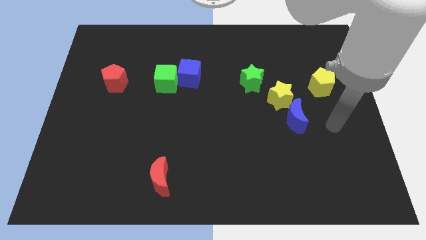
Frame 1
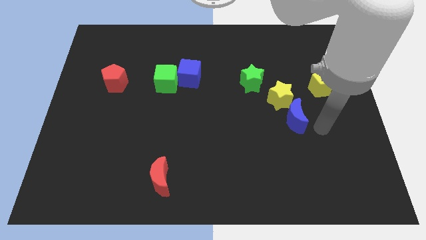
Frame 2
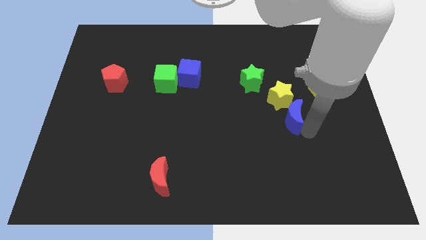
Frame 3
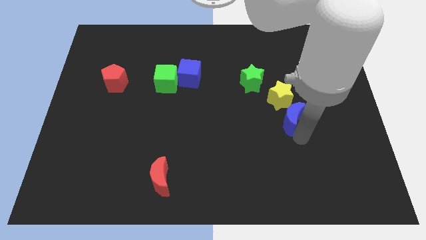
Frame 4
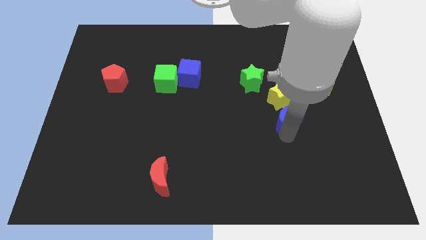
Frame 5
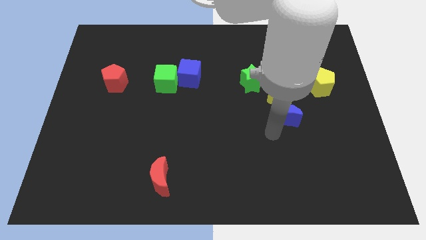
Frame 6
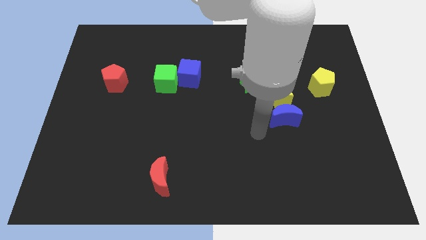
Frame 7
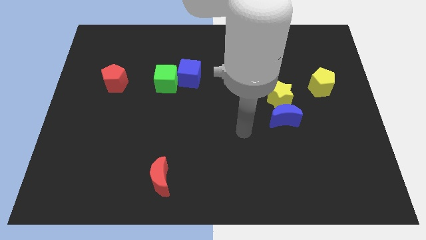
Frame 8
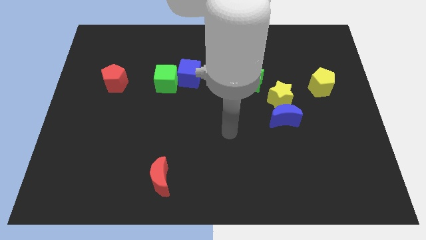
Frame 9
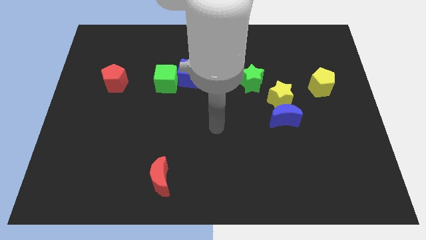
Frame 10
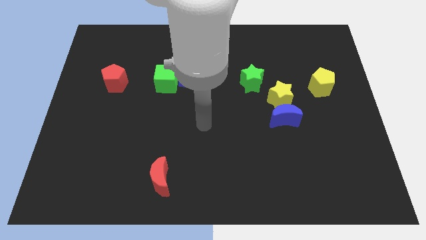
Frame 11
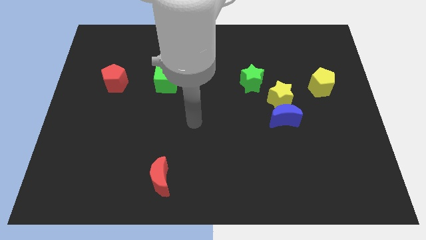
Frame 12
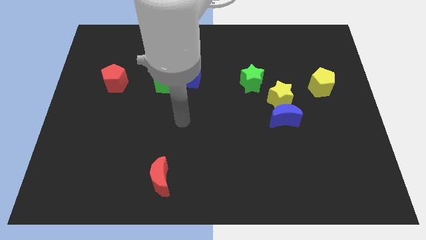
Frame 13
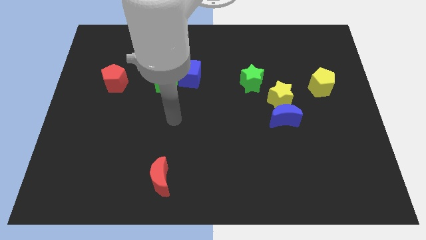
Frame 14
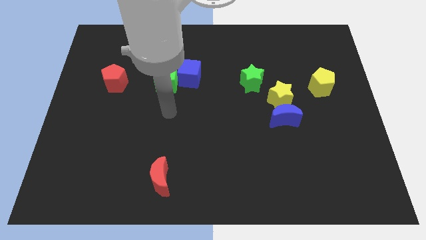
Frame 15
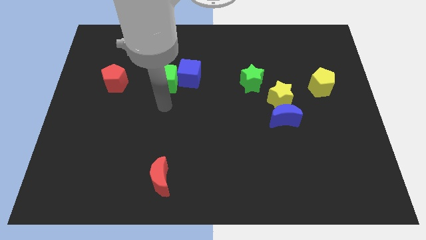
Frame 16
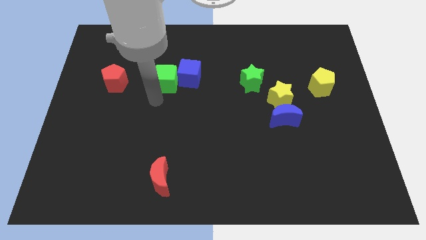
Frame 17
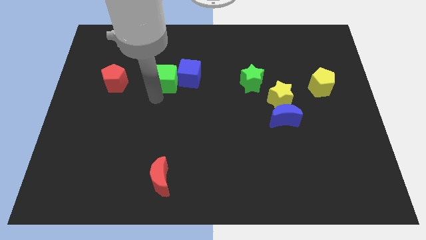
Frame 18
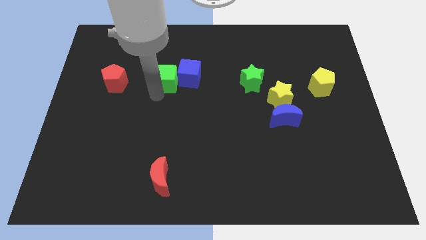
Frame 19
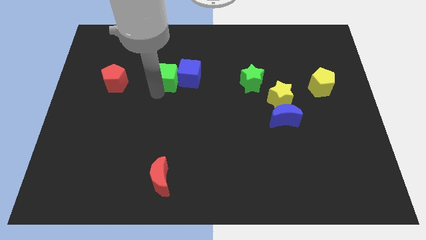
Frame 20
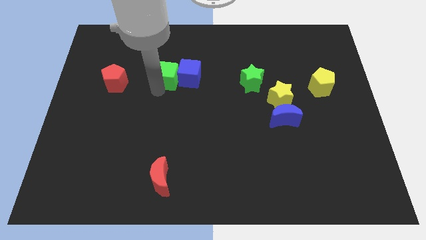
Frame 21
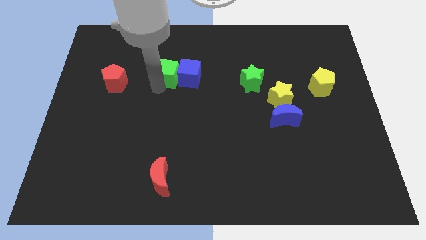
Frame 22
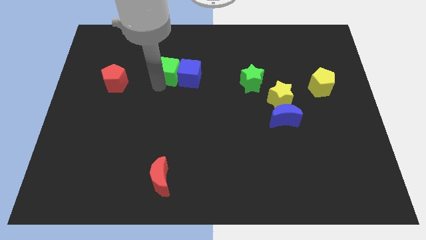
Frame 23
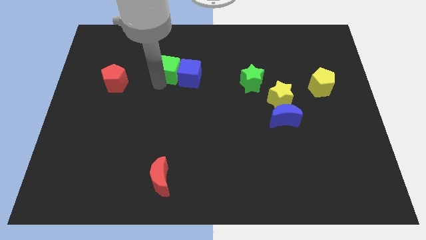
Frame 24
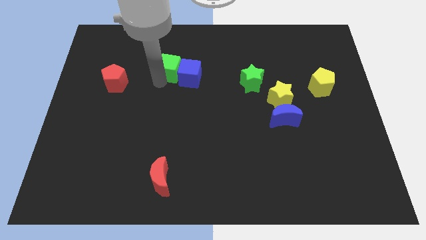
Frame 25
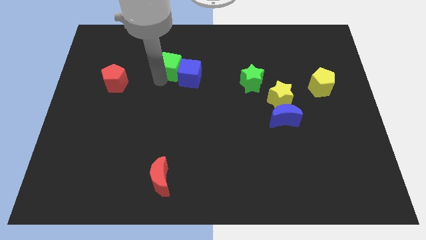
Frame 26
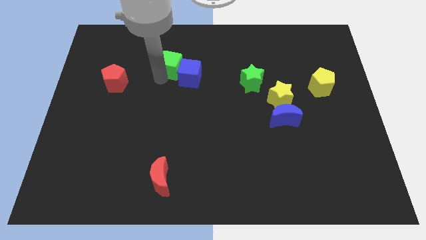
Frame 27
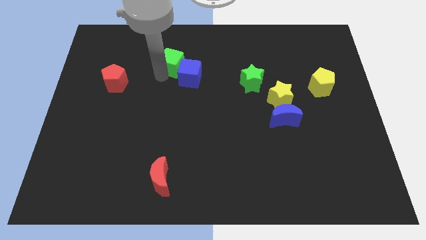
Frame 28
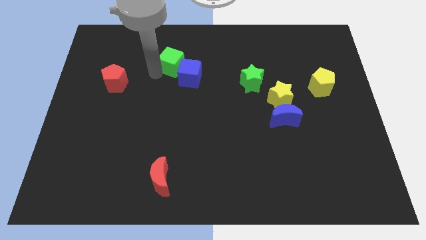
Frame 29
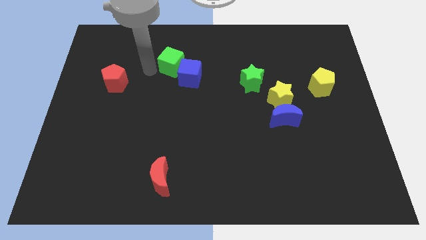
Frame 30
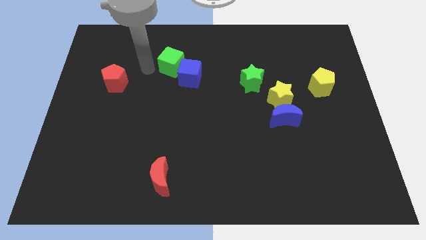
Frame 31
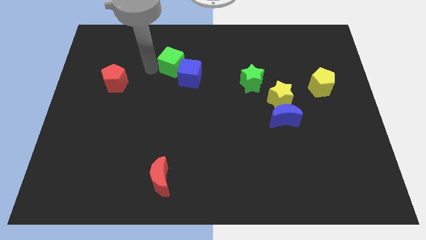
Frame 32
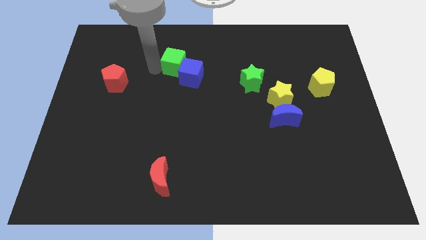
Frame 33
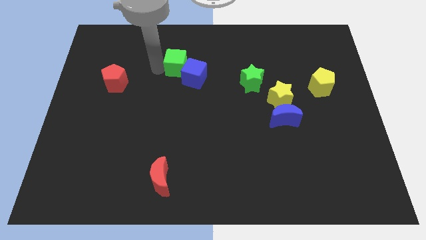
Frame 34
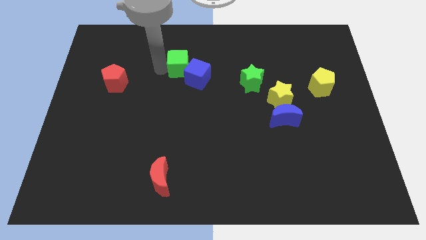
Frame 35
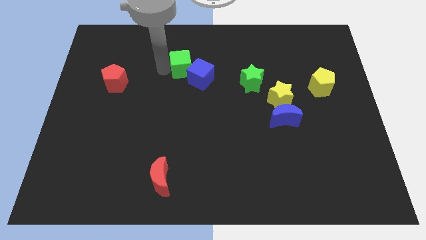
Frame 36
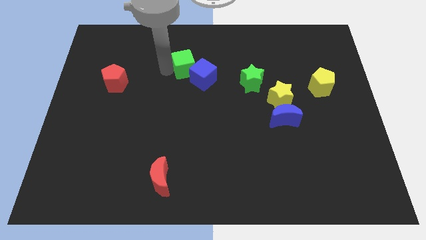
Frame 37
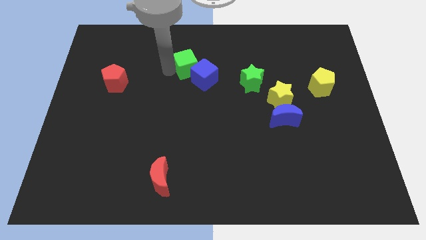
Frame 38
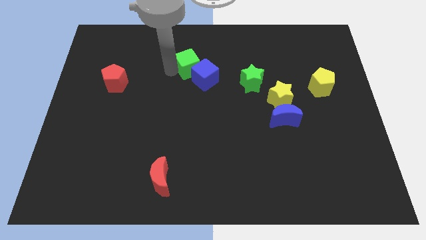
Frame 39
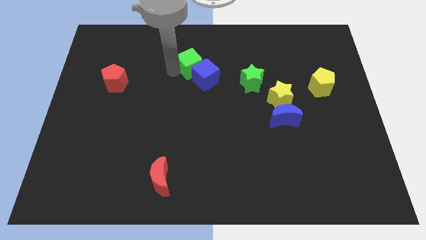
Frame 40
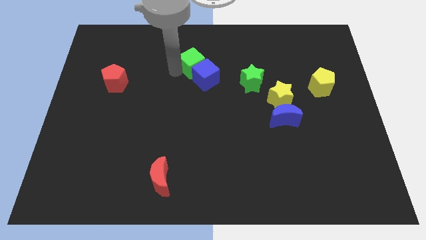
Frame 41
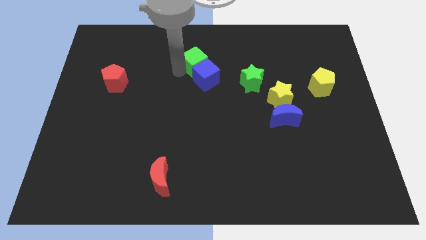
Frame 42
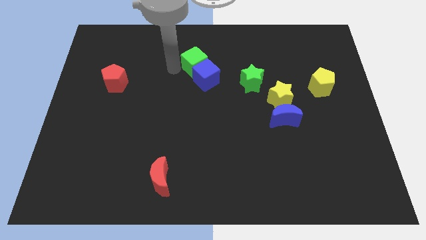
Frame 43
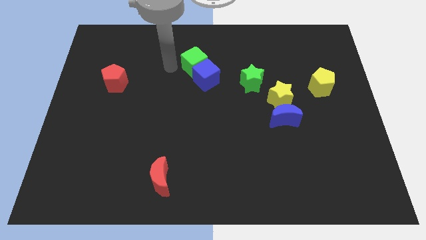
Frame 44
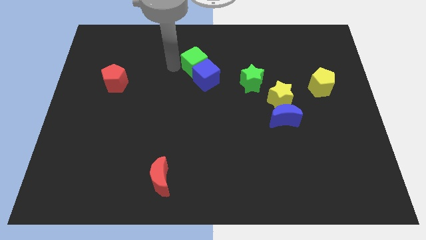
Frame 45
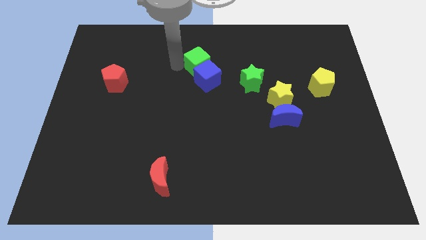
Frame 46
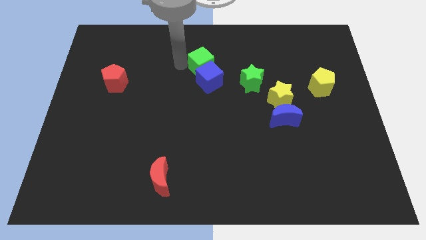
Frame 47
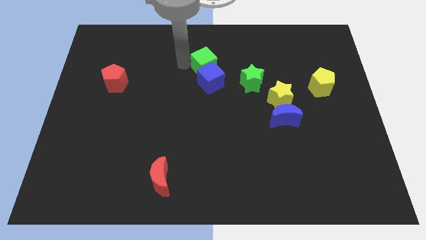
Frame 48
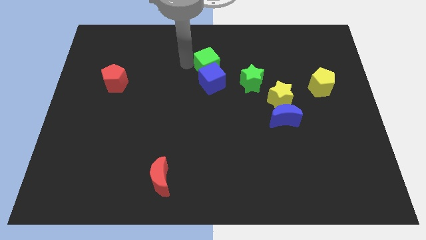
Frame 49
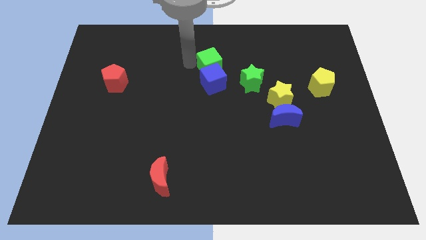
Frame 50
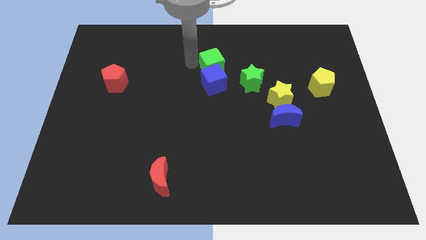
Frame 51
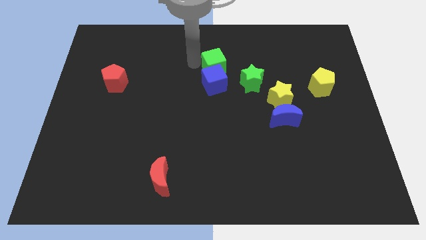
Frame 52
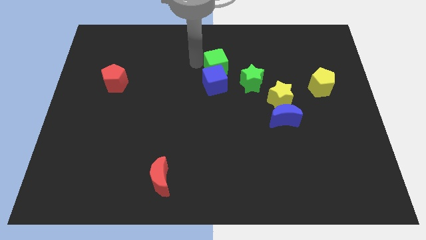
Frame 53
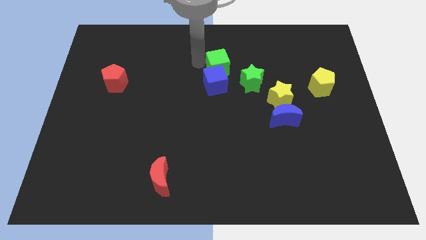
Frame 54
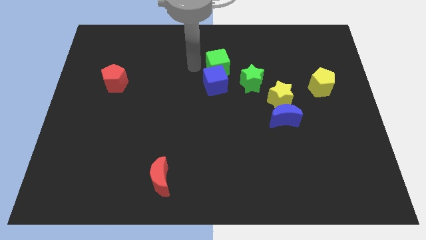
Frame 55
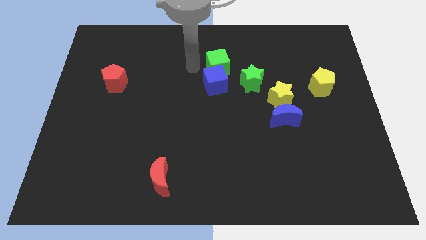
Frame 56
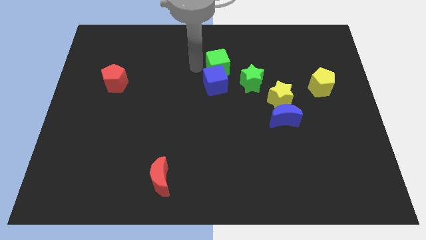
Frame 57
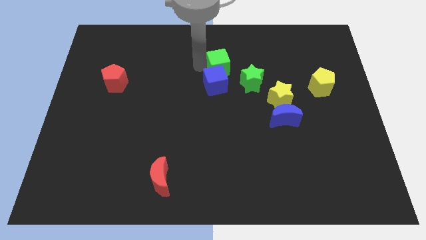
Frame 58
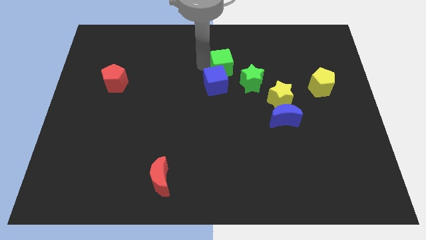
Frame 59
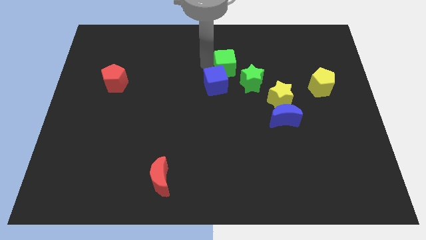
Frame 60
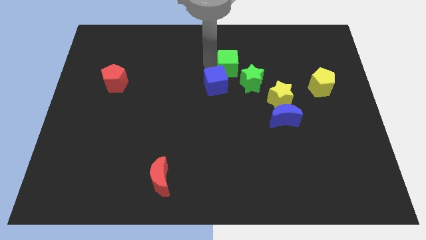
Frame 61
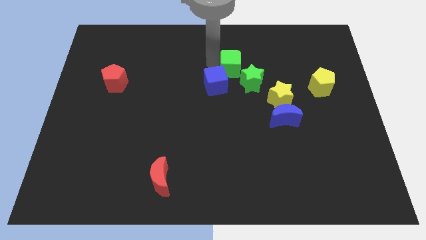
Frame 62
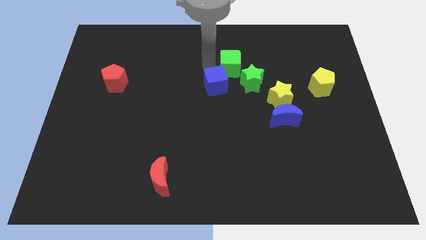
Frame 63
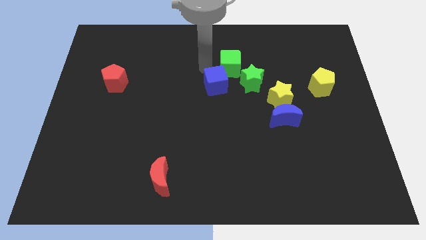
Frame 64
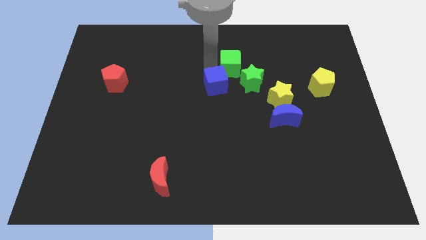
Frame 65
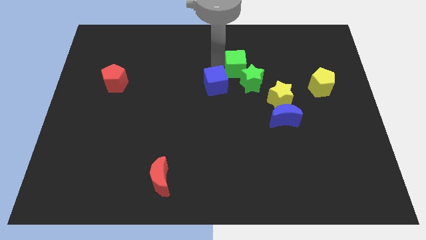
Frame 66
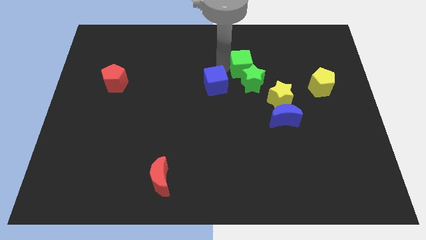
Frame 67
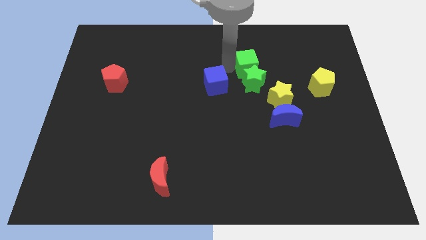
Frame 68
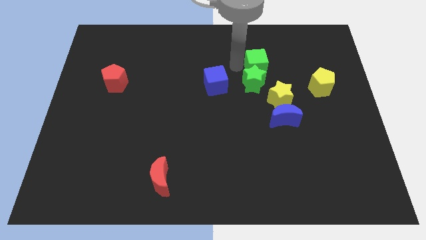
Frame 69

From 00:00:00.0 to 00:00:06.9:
push the green cube to the right

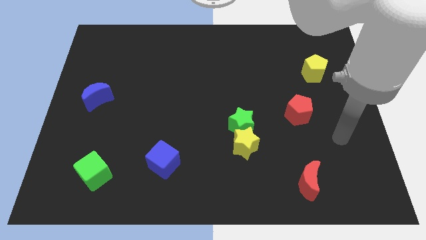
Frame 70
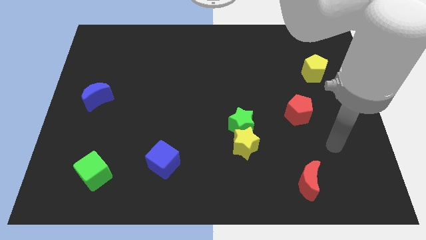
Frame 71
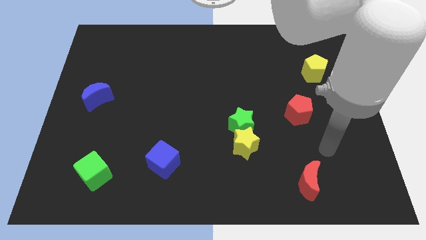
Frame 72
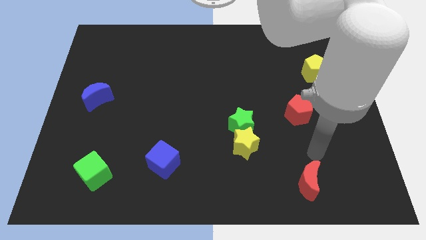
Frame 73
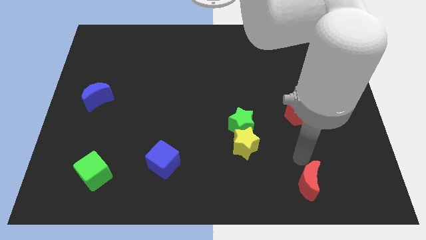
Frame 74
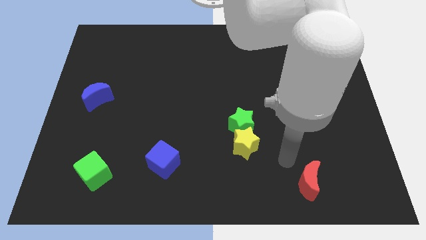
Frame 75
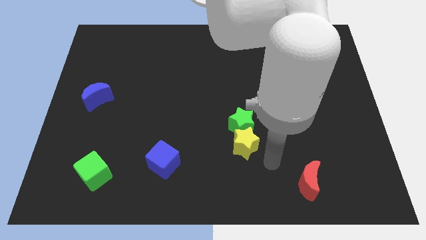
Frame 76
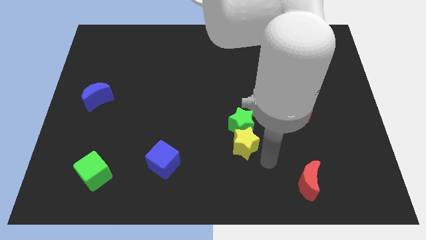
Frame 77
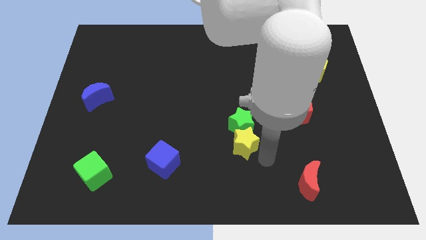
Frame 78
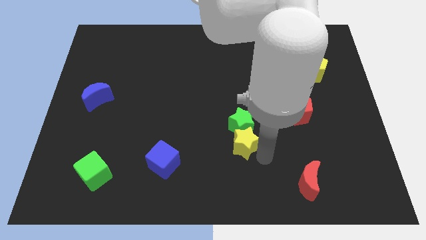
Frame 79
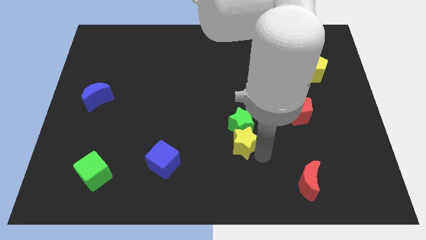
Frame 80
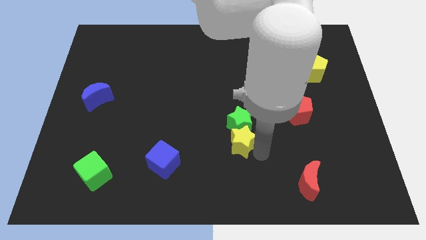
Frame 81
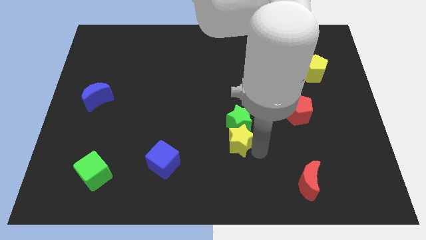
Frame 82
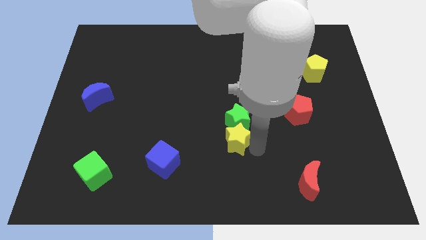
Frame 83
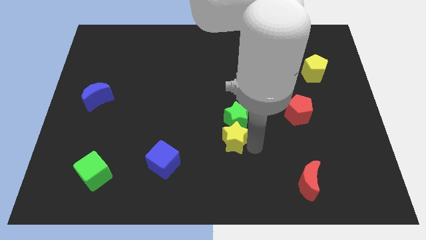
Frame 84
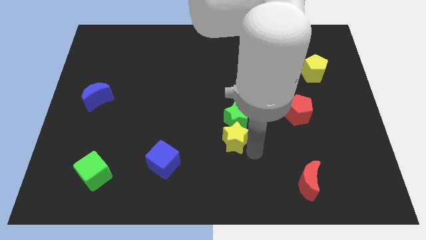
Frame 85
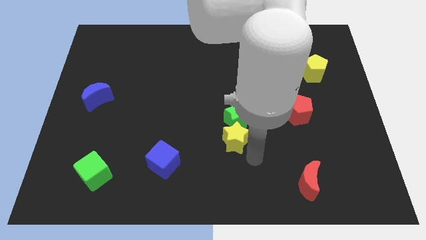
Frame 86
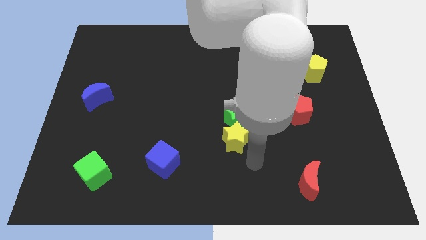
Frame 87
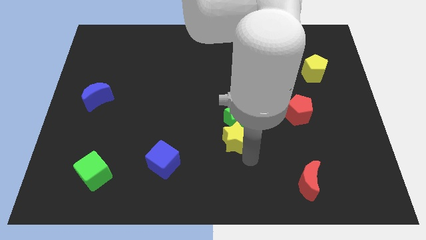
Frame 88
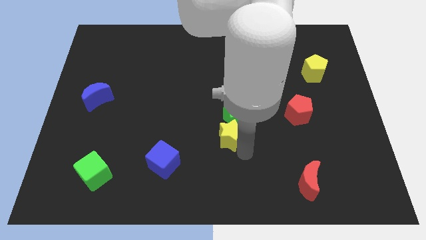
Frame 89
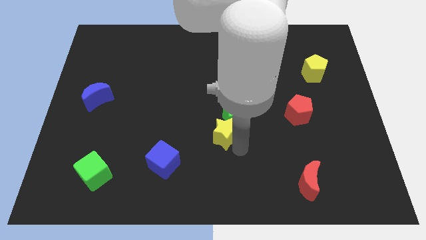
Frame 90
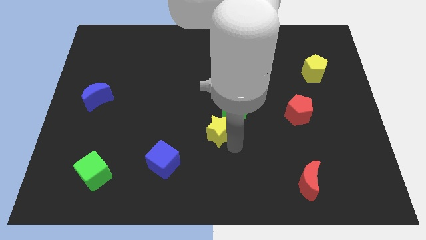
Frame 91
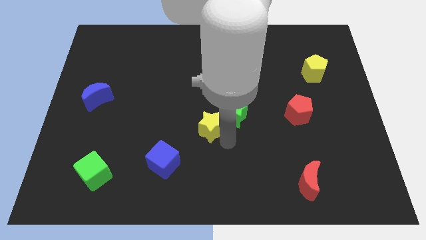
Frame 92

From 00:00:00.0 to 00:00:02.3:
push the yellow star upwards and left a little
